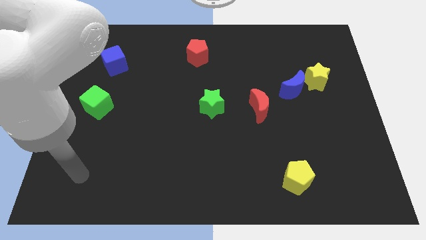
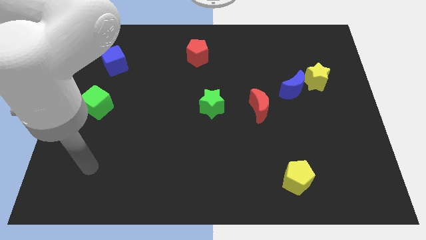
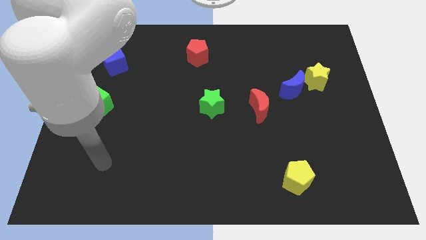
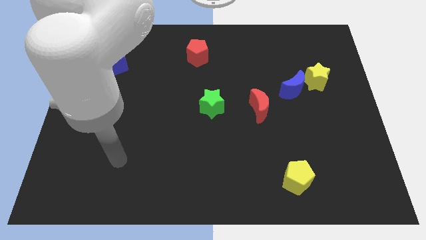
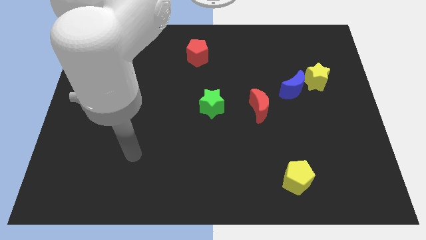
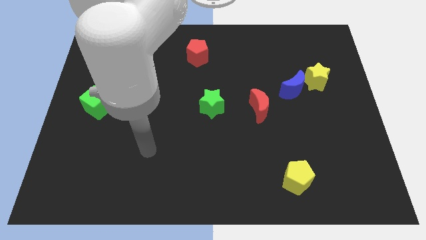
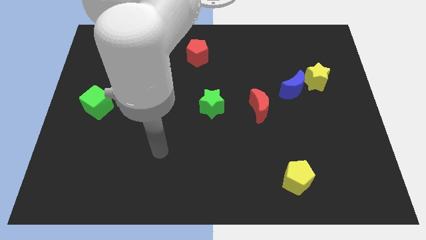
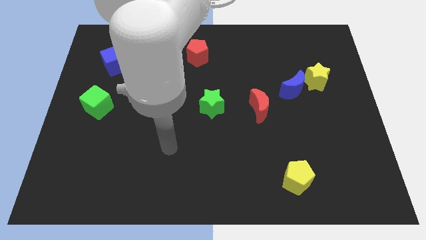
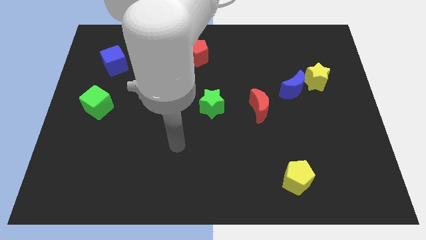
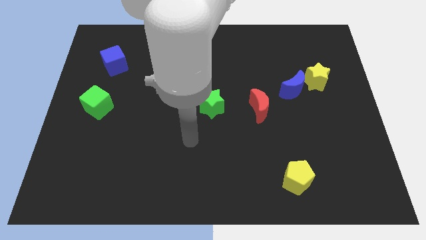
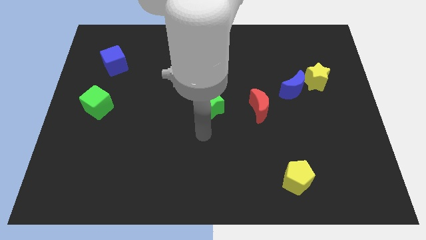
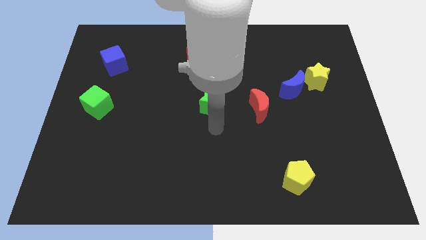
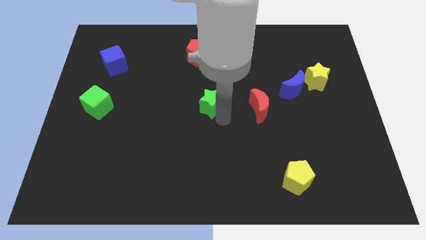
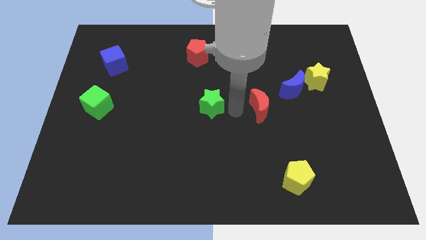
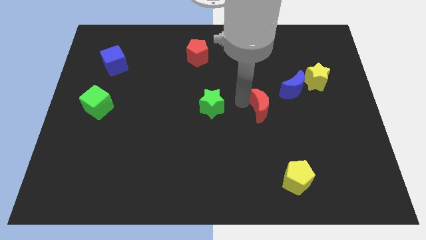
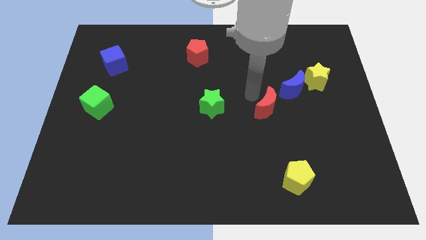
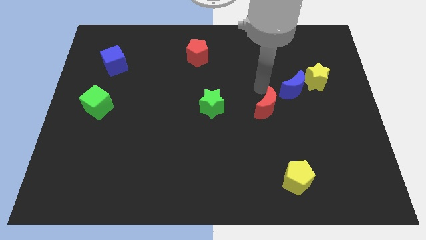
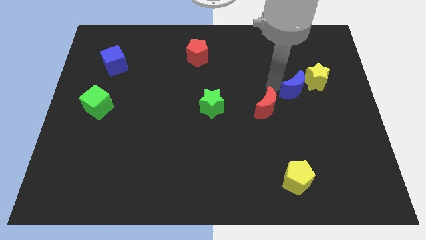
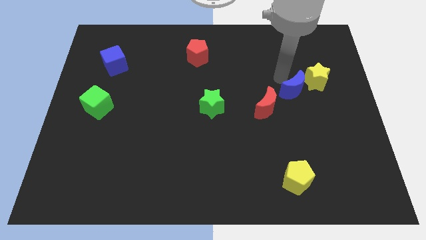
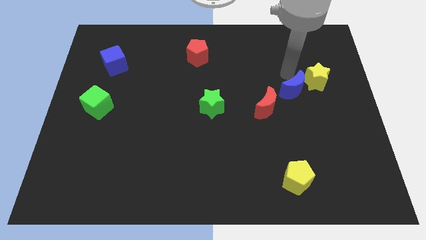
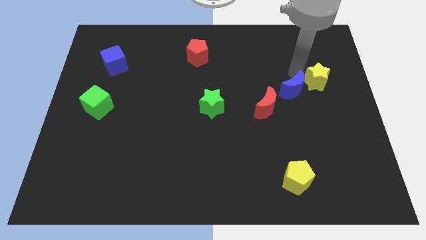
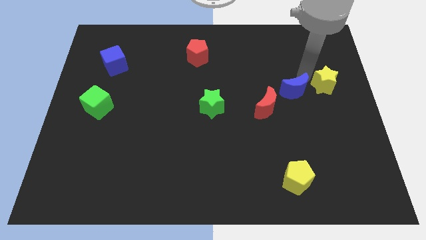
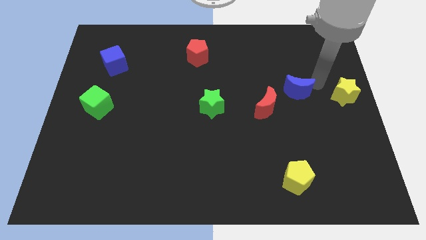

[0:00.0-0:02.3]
pull the blue moon apart from the yellow star

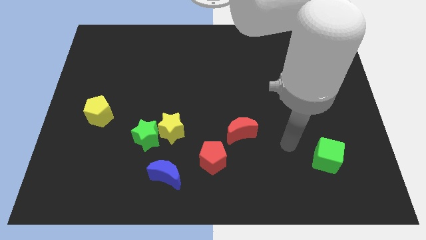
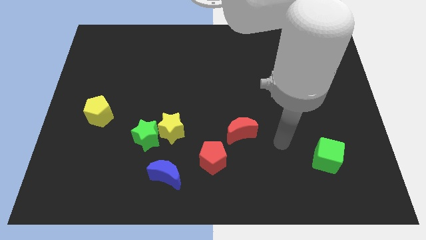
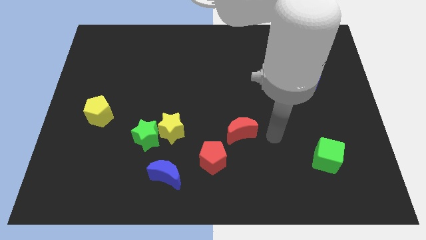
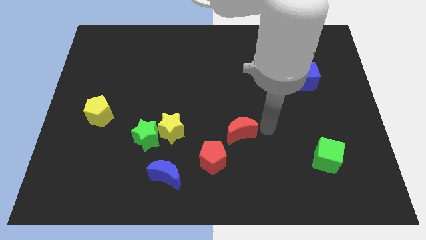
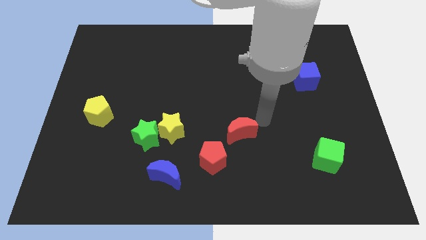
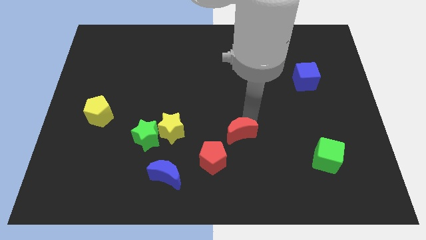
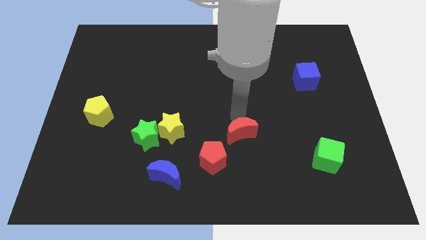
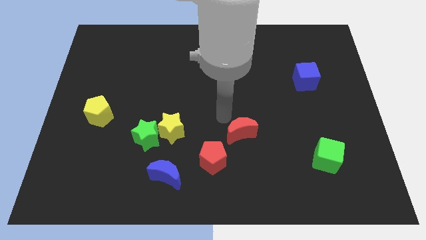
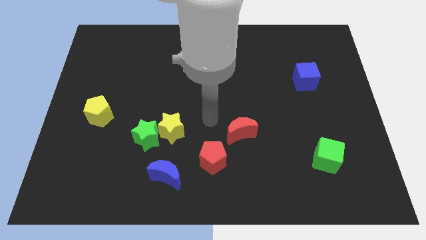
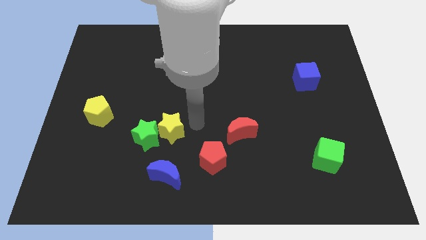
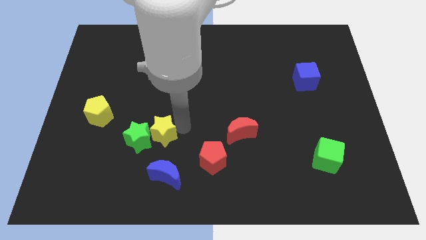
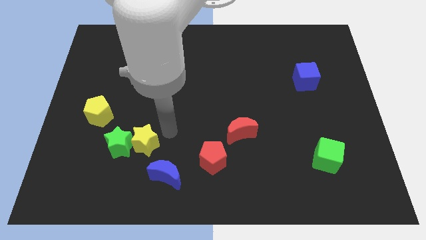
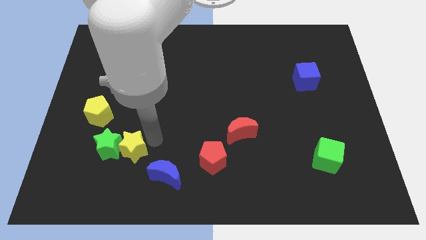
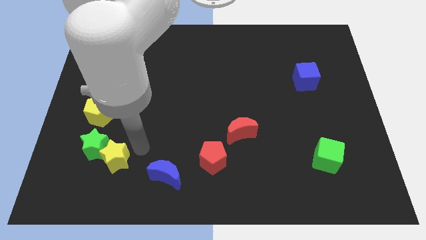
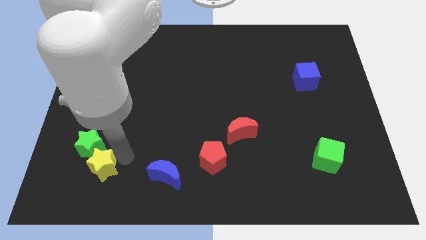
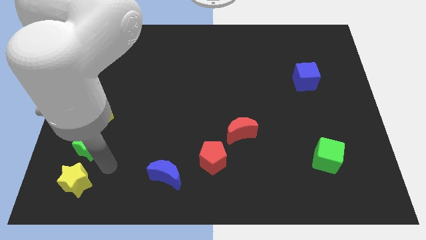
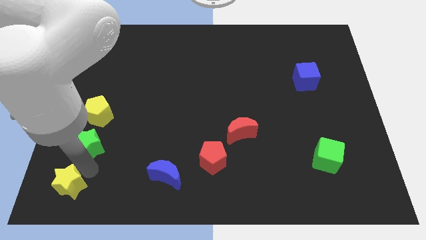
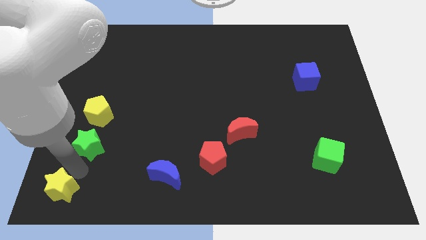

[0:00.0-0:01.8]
separate the green star from the yellow star

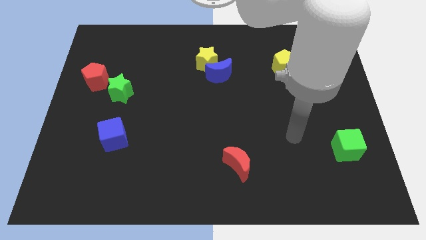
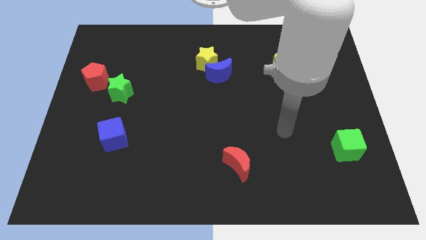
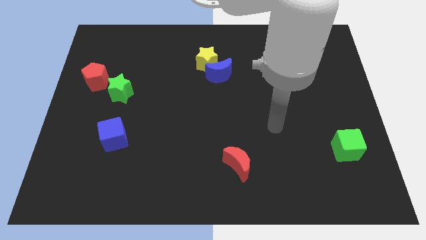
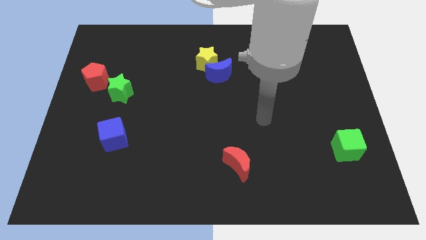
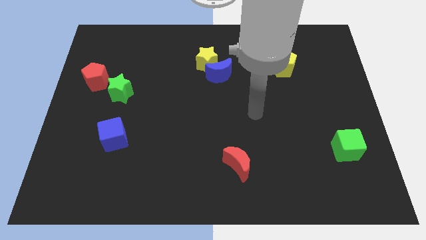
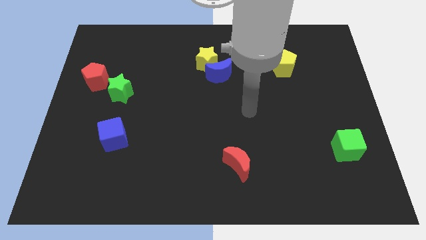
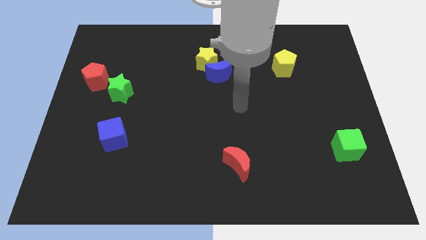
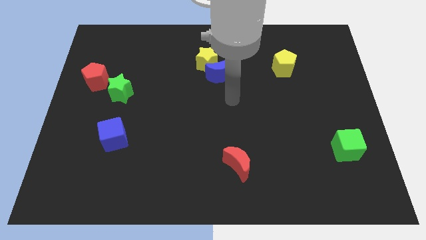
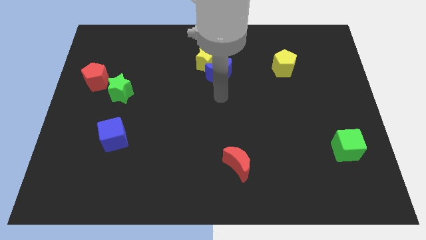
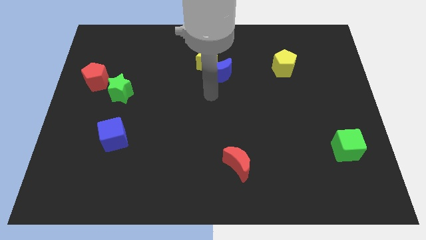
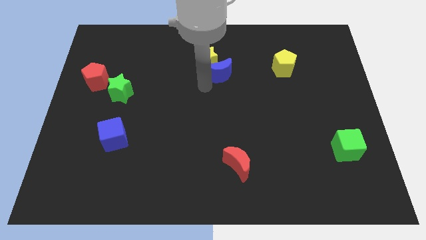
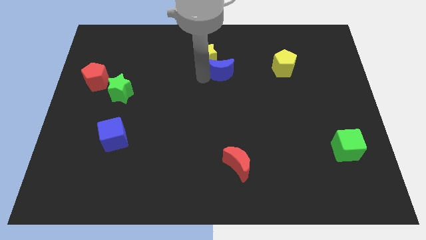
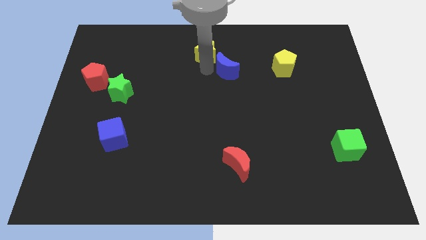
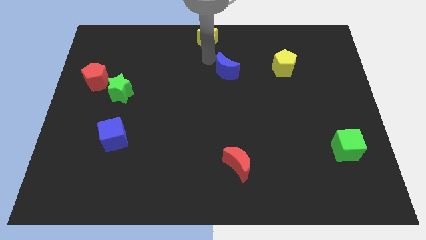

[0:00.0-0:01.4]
move the blue moon away from the yellow star

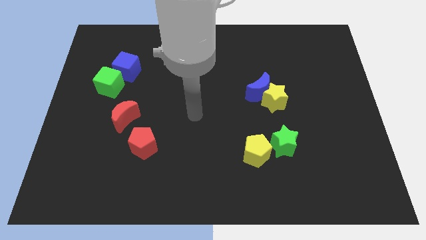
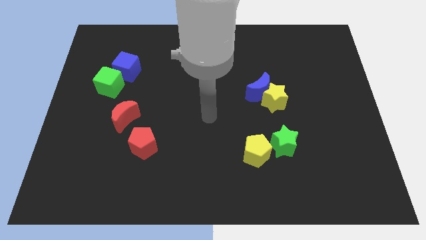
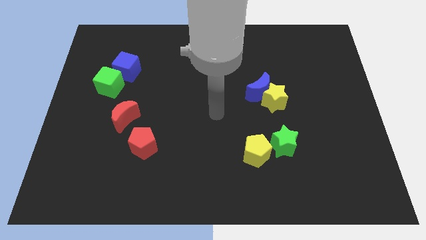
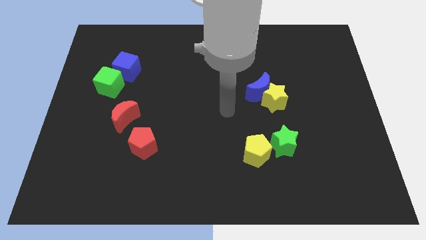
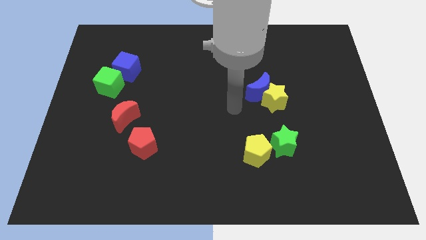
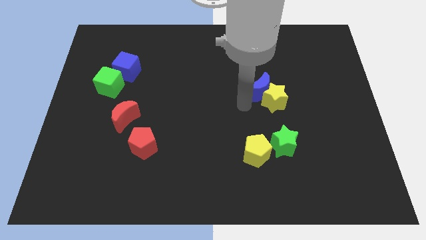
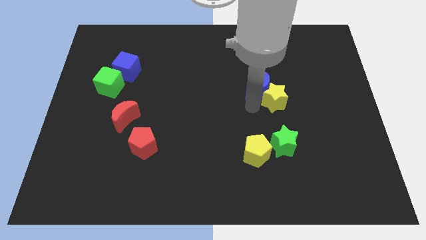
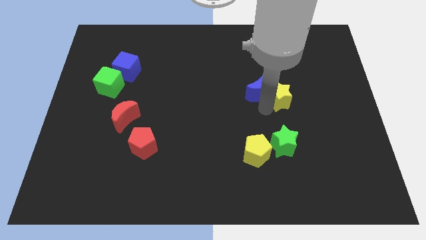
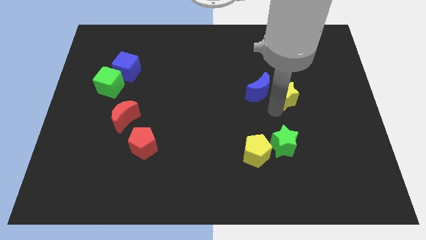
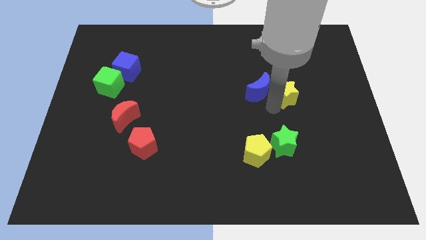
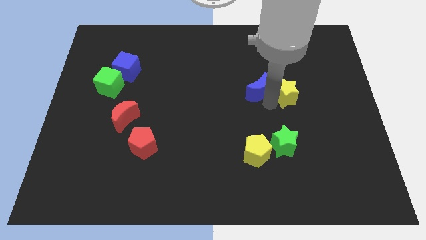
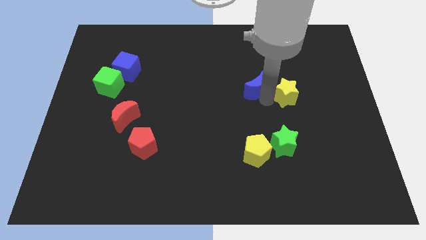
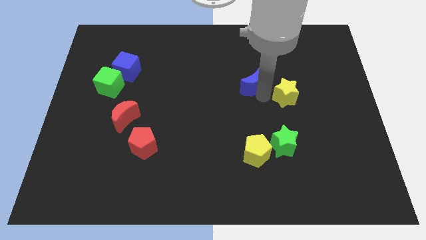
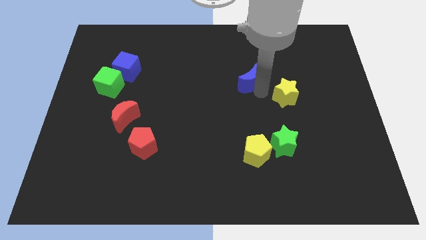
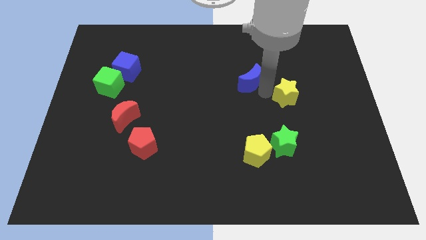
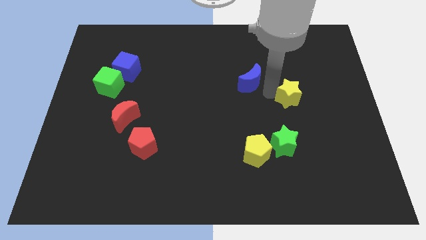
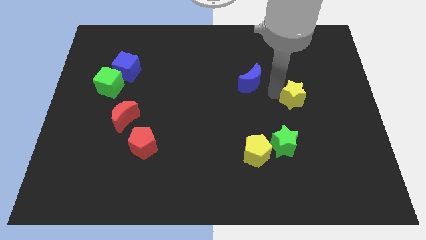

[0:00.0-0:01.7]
separate the blue moon from the yellow star

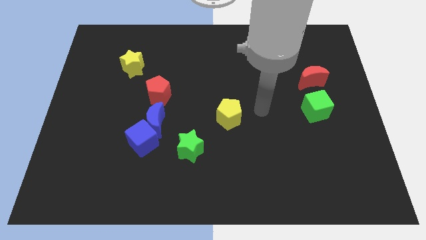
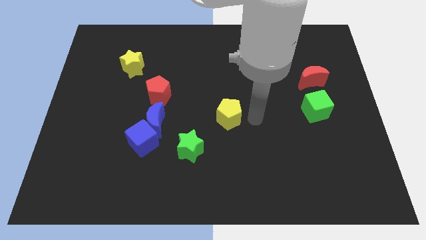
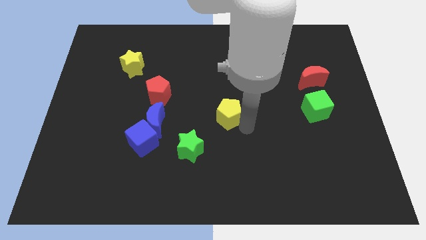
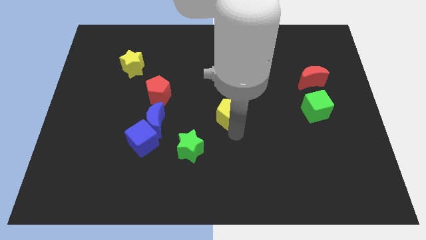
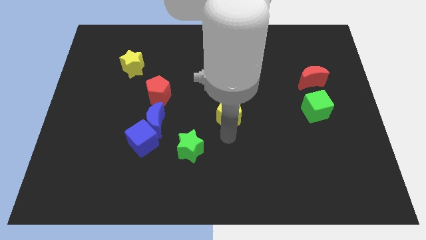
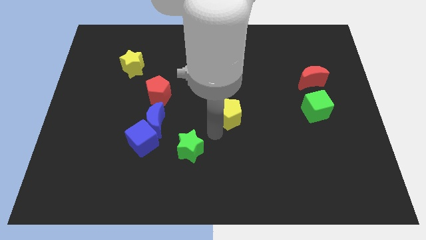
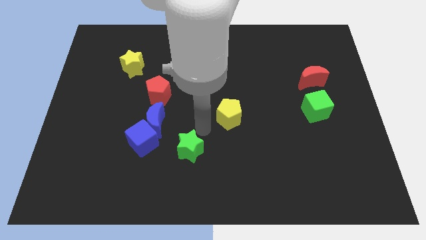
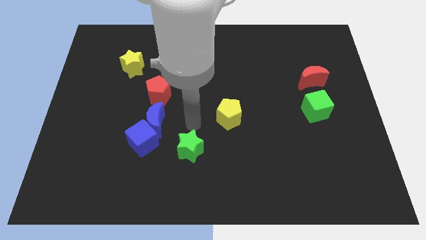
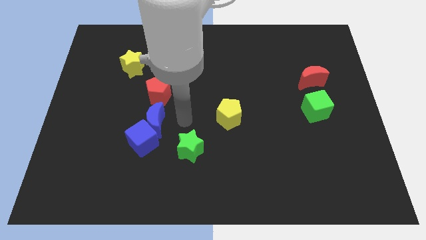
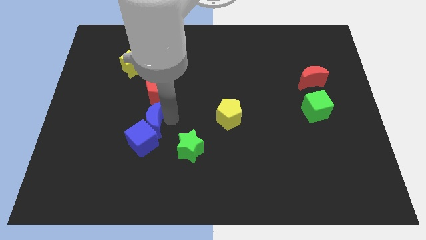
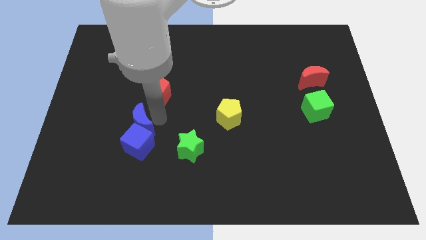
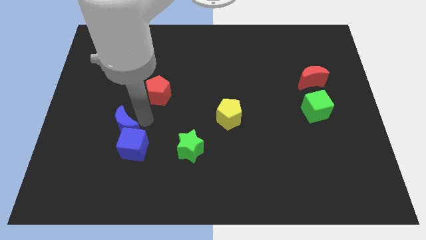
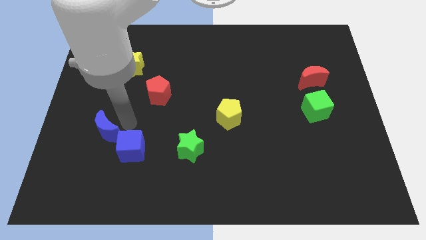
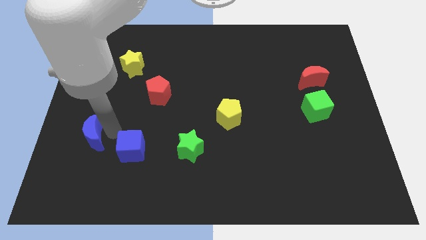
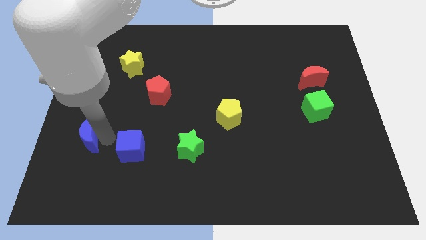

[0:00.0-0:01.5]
separate the blue cube from the blue moon

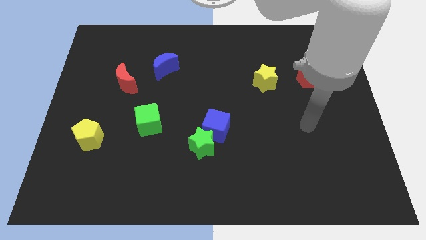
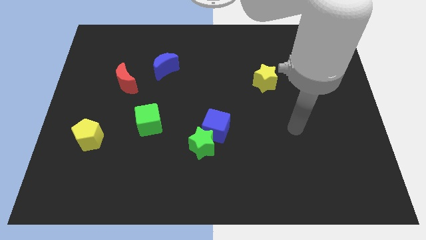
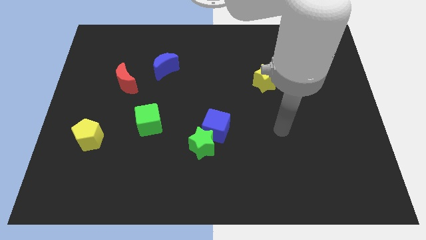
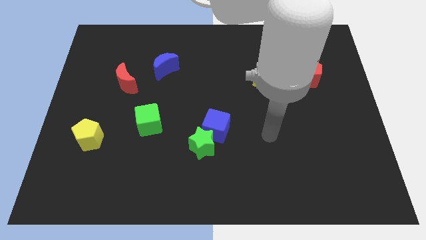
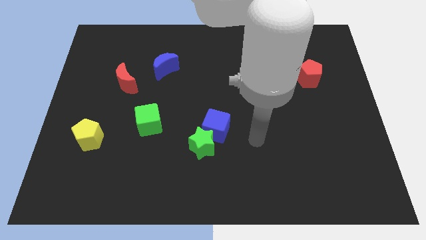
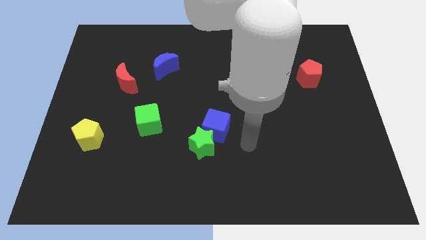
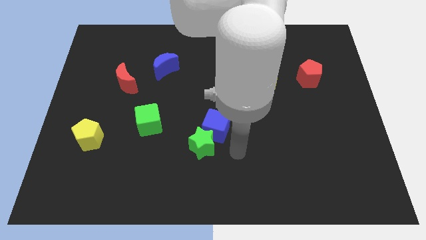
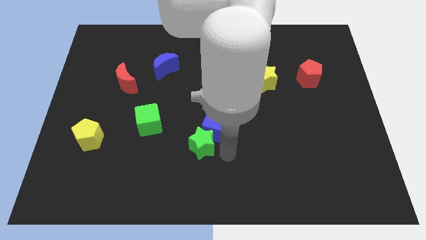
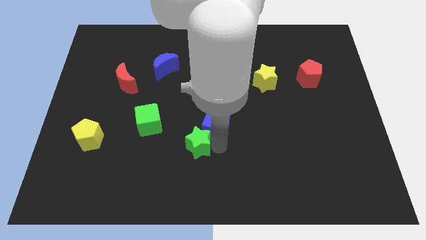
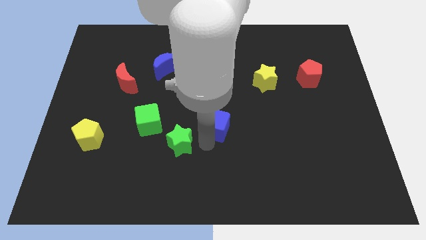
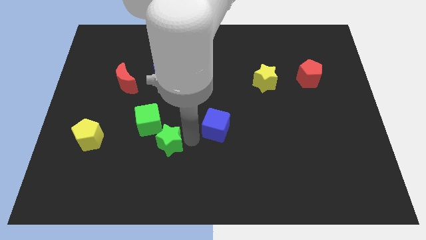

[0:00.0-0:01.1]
pull the blue cube apart from the green star
